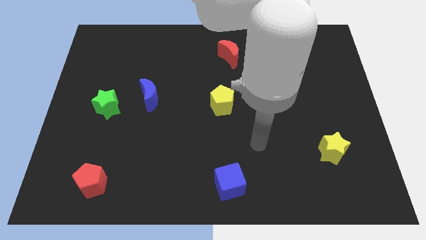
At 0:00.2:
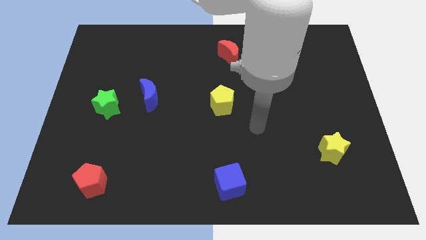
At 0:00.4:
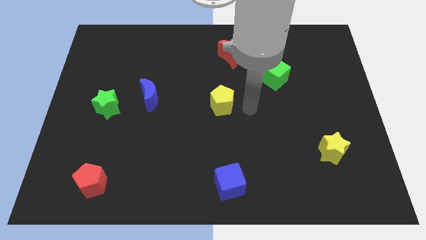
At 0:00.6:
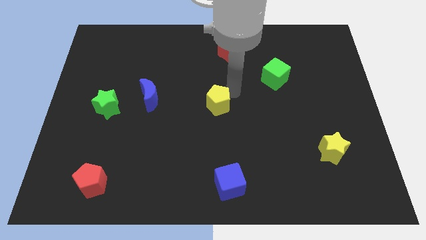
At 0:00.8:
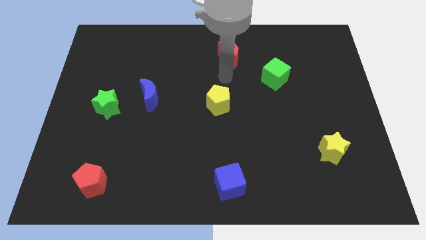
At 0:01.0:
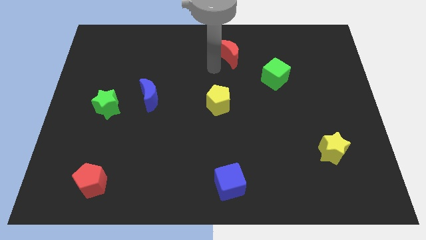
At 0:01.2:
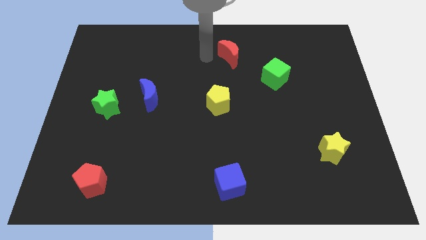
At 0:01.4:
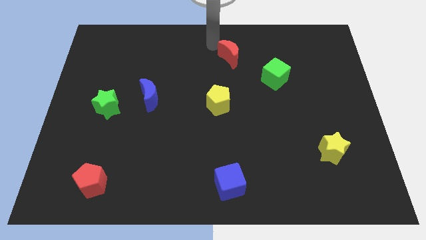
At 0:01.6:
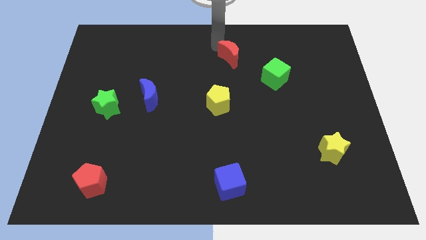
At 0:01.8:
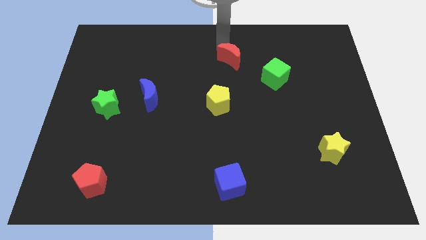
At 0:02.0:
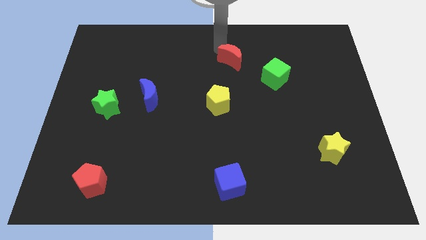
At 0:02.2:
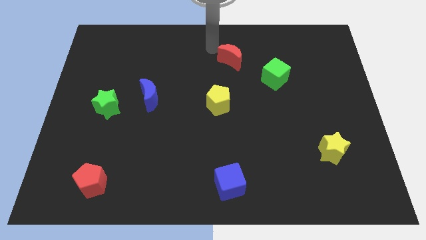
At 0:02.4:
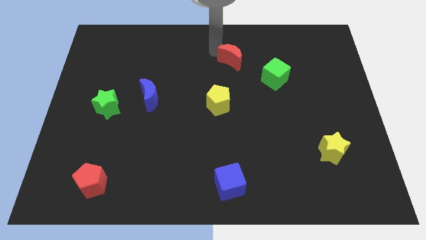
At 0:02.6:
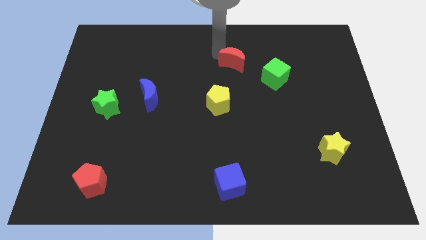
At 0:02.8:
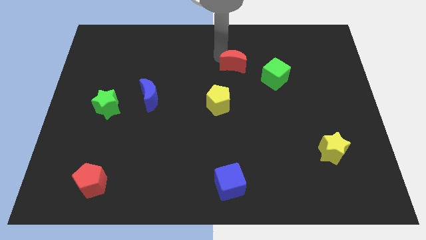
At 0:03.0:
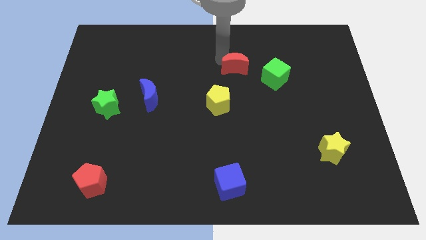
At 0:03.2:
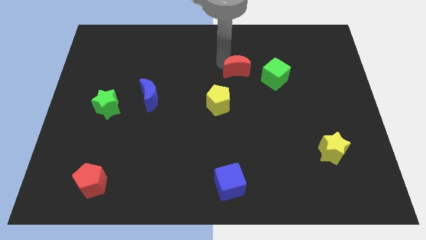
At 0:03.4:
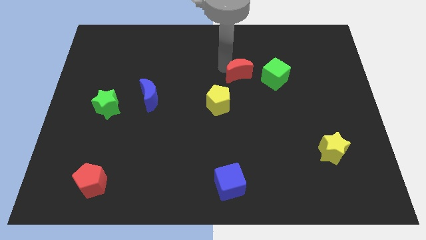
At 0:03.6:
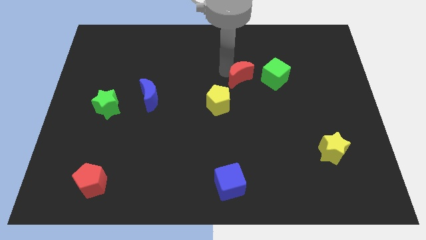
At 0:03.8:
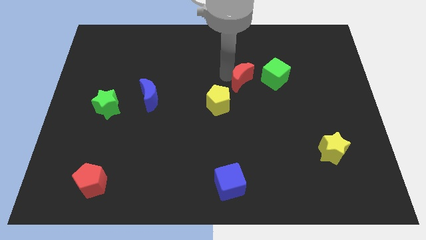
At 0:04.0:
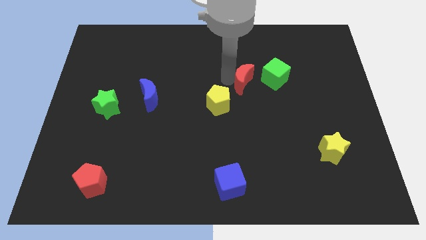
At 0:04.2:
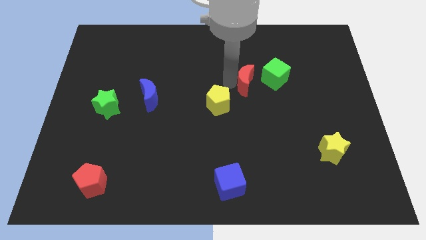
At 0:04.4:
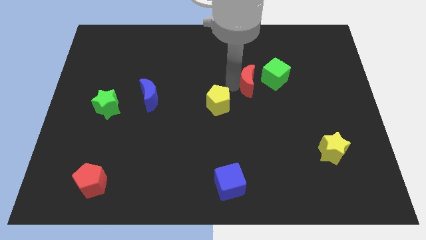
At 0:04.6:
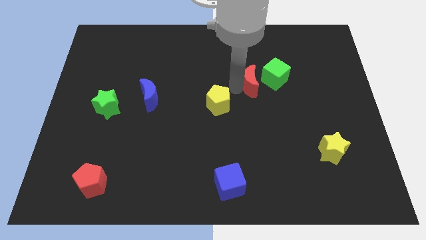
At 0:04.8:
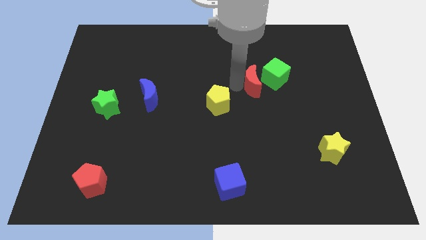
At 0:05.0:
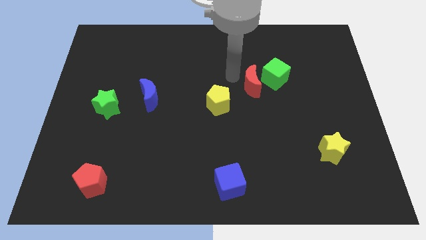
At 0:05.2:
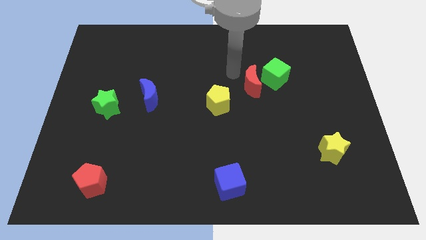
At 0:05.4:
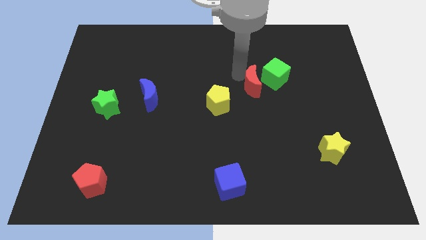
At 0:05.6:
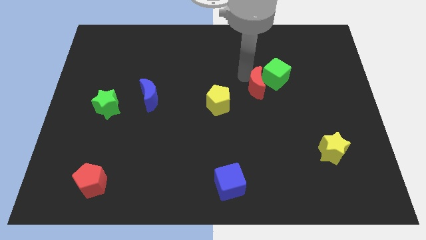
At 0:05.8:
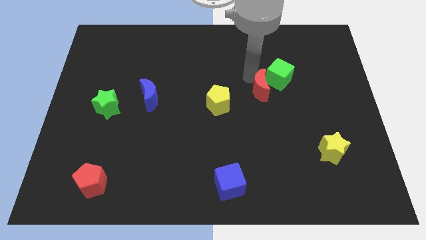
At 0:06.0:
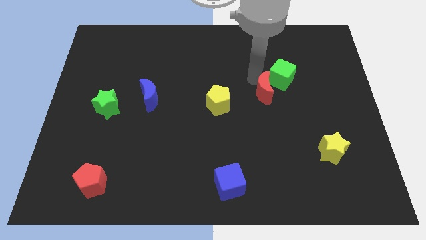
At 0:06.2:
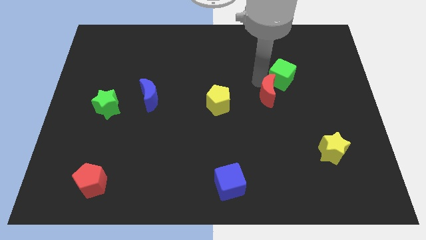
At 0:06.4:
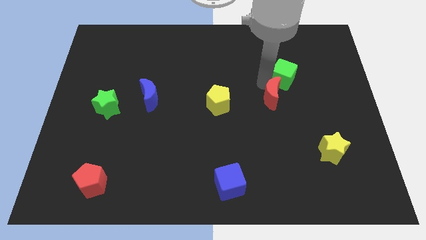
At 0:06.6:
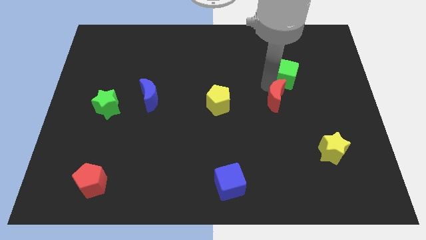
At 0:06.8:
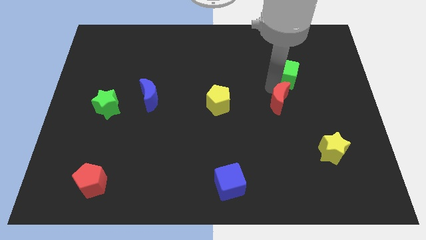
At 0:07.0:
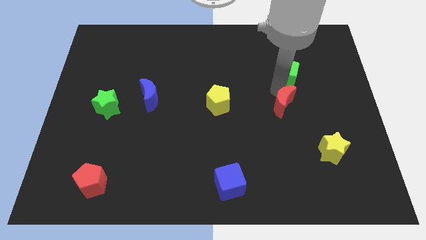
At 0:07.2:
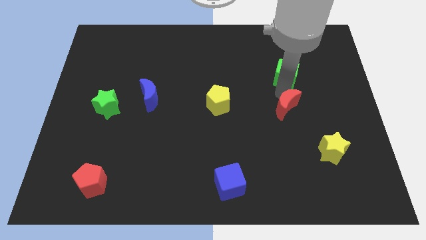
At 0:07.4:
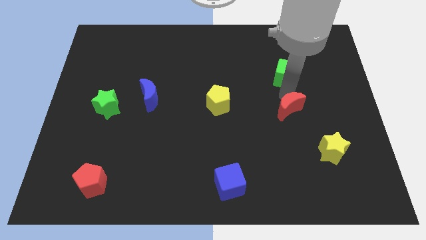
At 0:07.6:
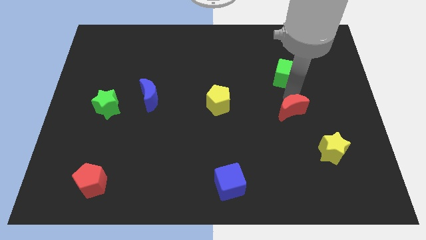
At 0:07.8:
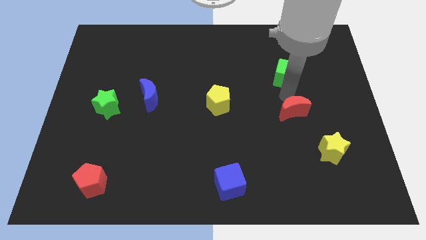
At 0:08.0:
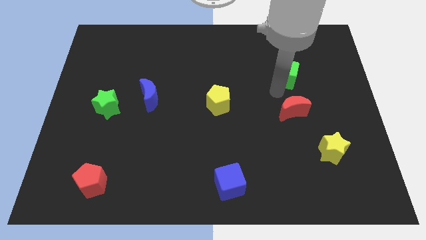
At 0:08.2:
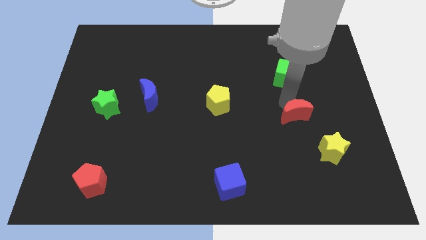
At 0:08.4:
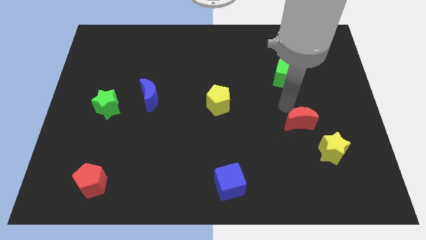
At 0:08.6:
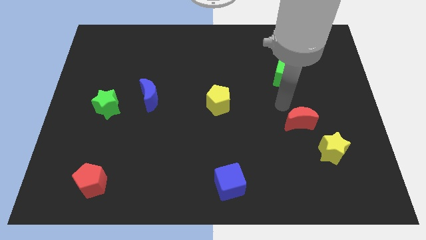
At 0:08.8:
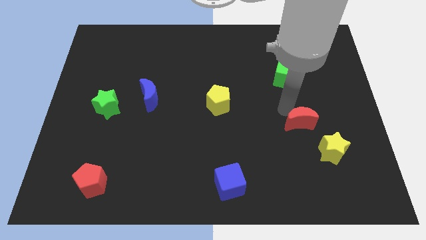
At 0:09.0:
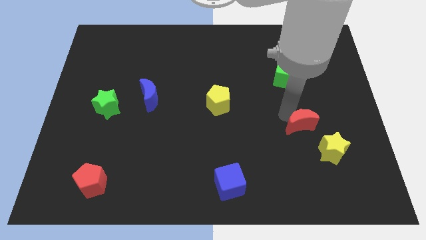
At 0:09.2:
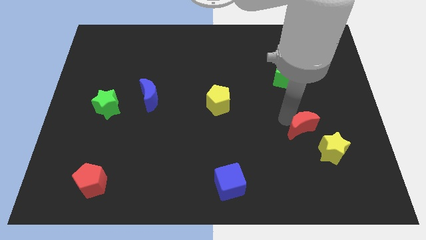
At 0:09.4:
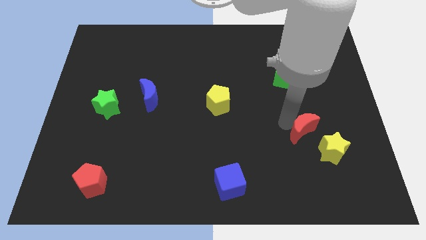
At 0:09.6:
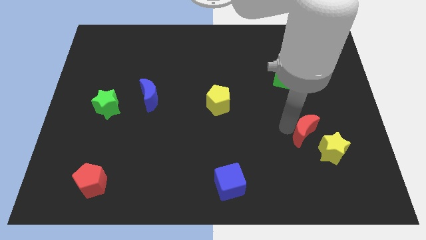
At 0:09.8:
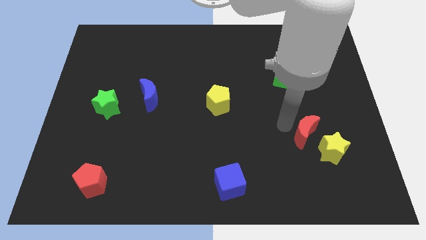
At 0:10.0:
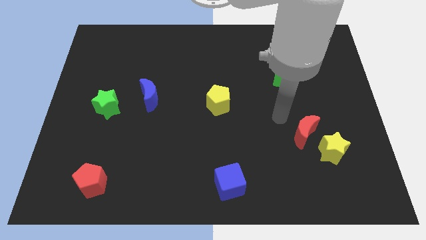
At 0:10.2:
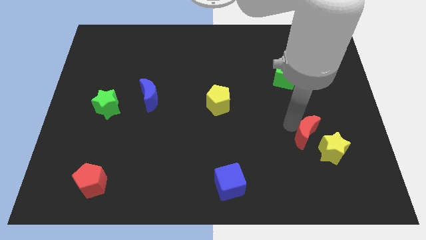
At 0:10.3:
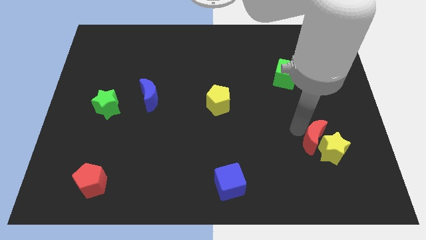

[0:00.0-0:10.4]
slide the red moon to the yellow star

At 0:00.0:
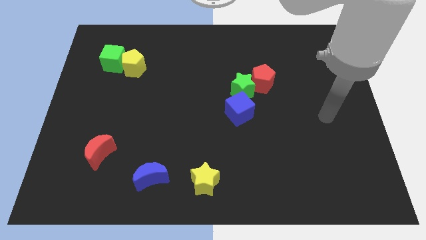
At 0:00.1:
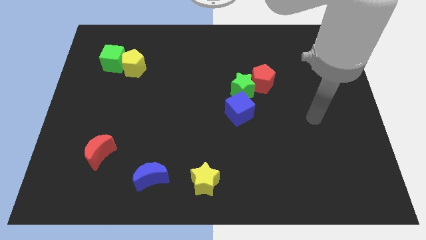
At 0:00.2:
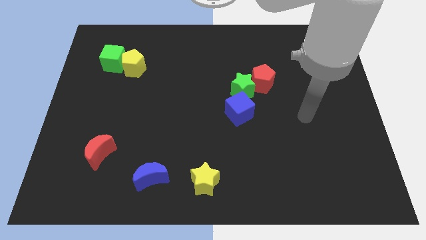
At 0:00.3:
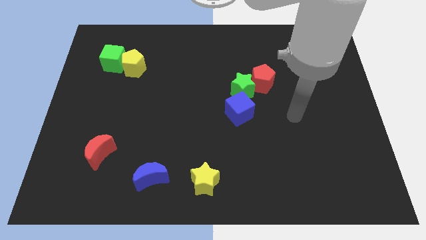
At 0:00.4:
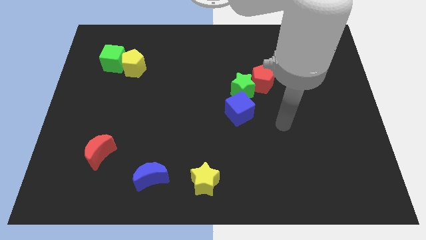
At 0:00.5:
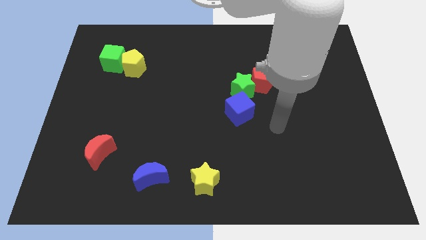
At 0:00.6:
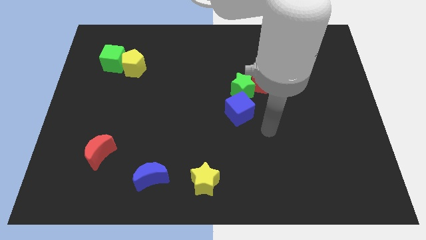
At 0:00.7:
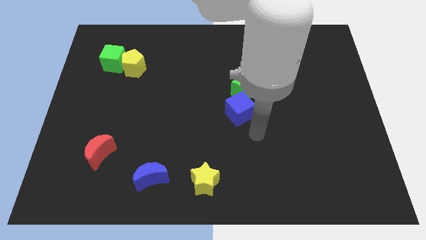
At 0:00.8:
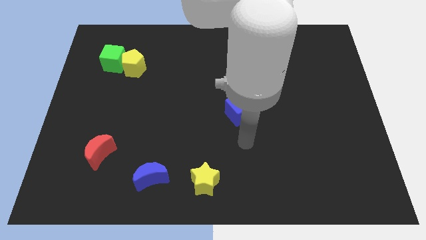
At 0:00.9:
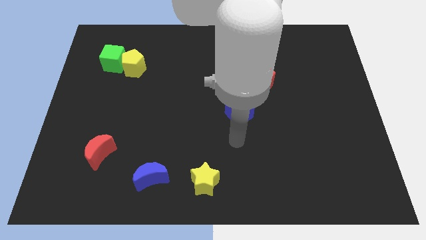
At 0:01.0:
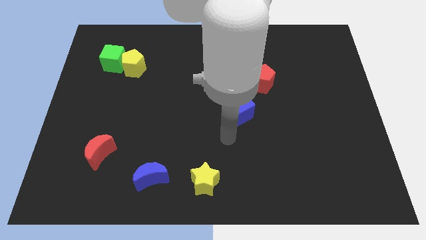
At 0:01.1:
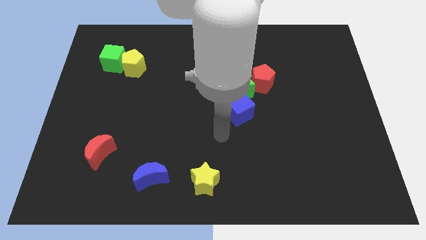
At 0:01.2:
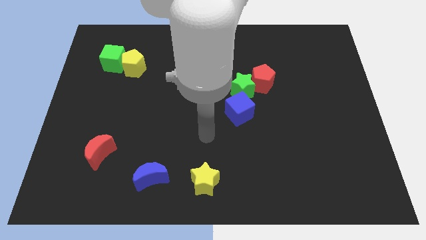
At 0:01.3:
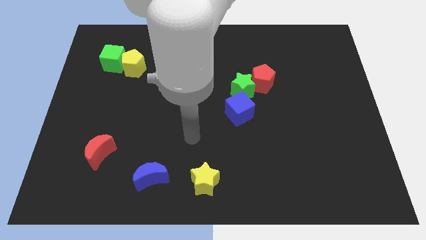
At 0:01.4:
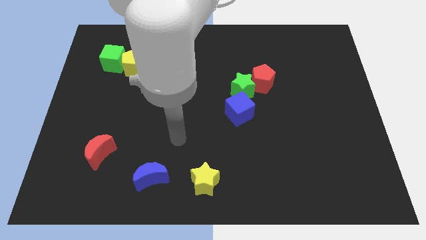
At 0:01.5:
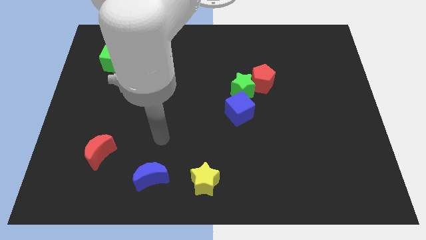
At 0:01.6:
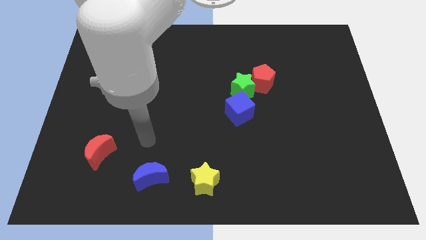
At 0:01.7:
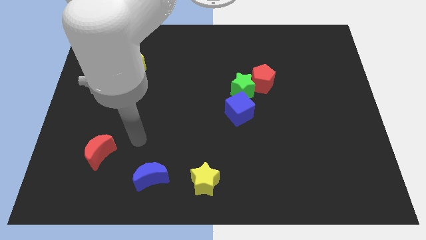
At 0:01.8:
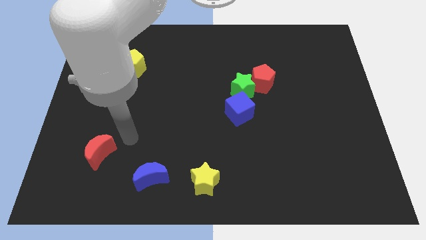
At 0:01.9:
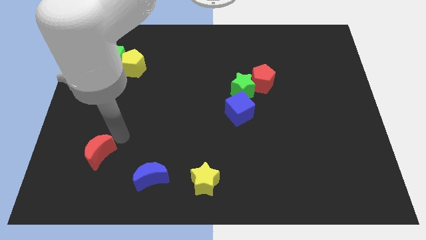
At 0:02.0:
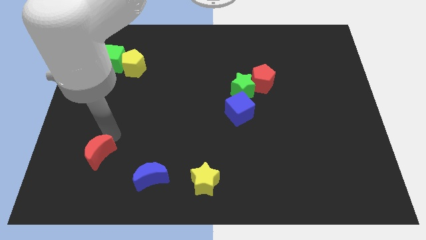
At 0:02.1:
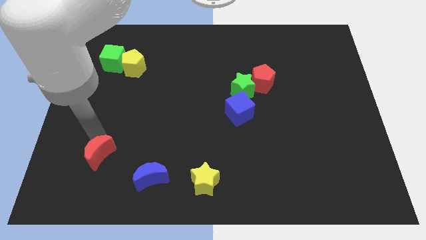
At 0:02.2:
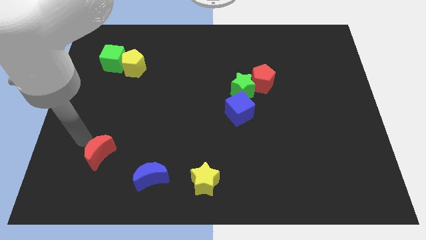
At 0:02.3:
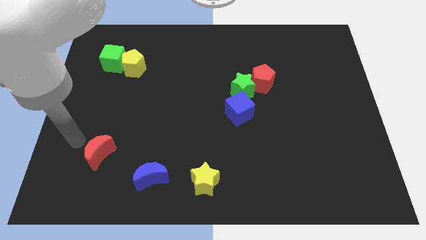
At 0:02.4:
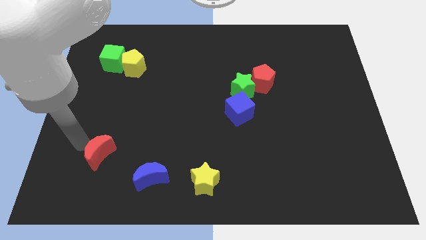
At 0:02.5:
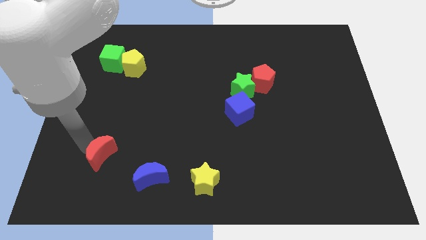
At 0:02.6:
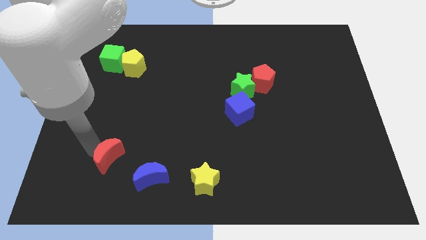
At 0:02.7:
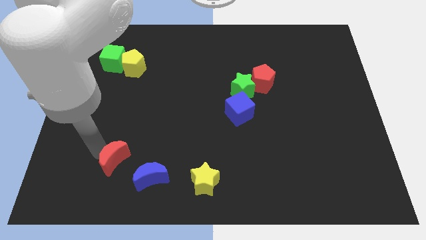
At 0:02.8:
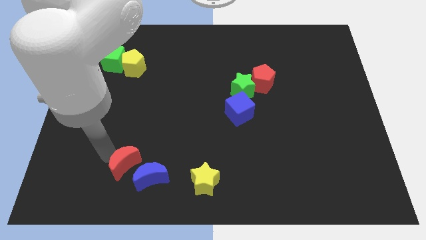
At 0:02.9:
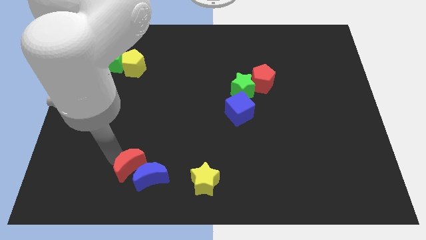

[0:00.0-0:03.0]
move the red moon close to the blue moon
